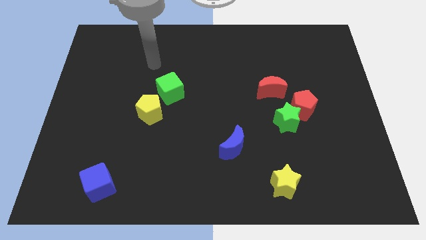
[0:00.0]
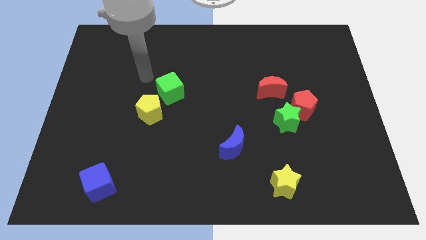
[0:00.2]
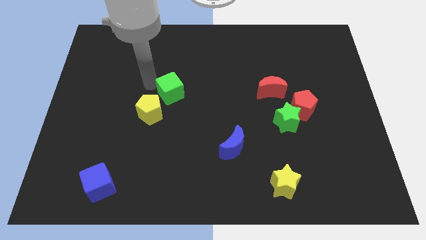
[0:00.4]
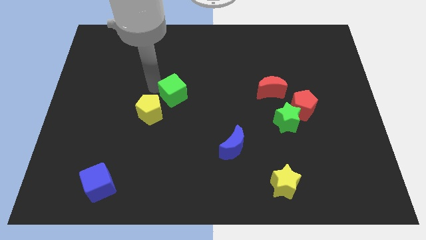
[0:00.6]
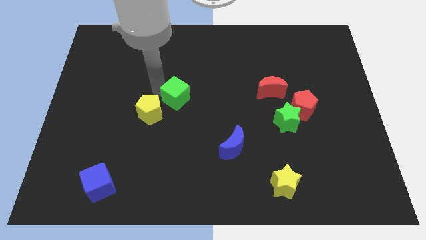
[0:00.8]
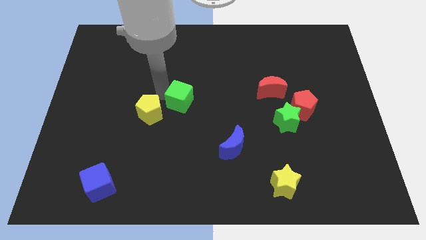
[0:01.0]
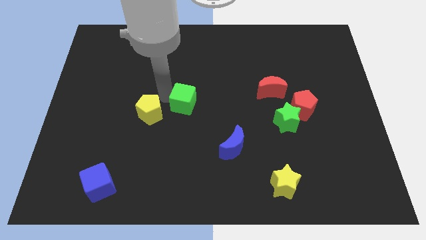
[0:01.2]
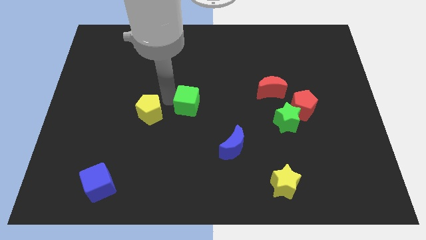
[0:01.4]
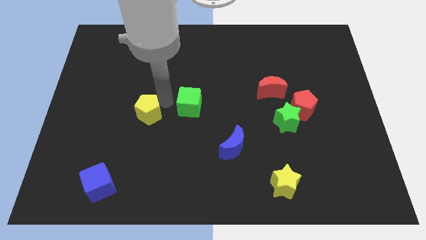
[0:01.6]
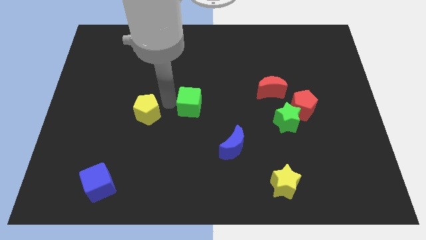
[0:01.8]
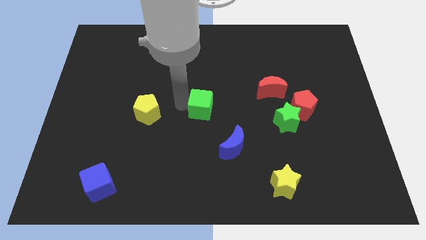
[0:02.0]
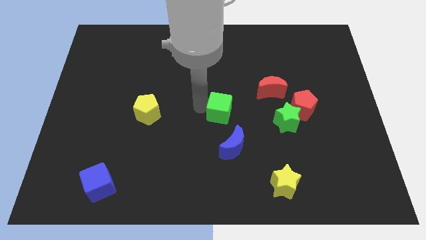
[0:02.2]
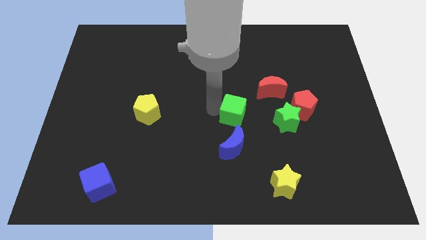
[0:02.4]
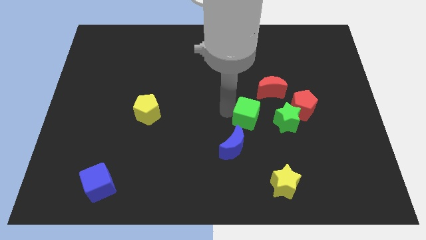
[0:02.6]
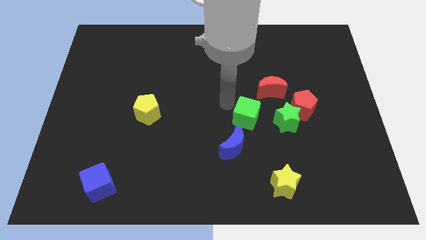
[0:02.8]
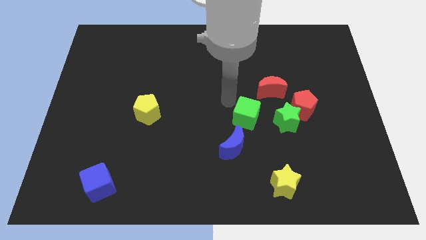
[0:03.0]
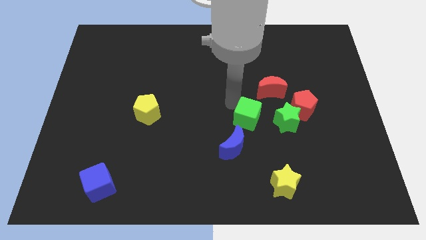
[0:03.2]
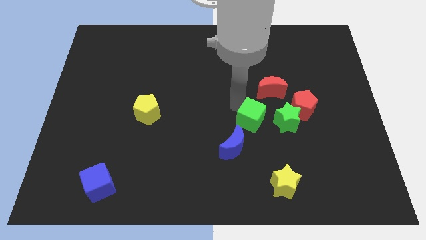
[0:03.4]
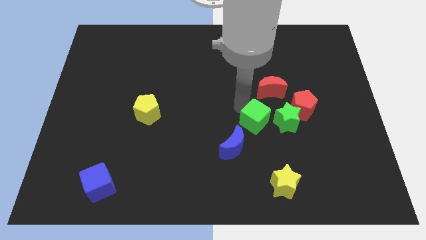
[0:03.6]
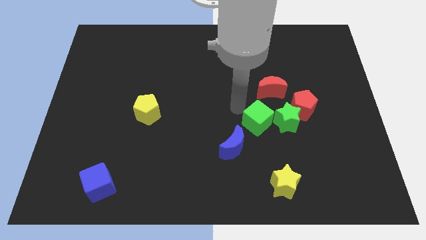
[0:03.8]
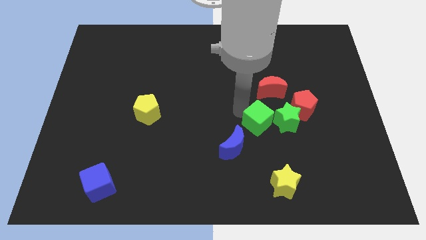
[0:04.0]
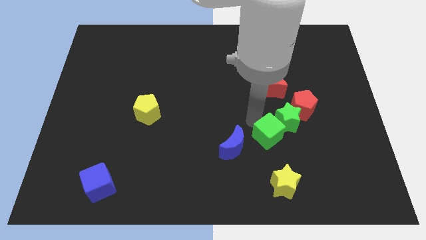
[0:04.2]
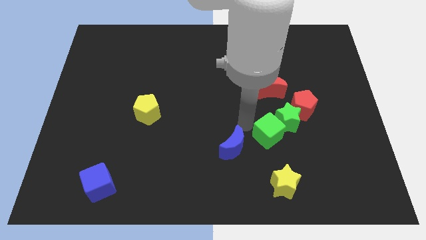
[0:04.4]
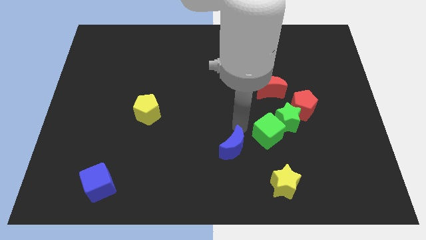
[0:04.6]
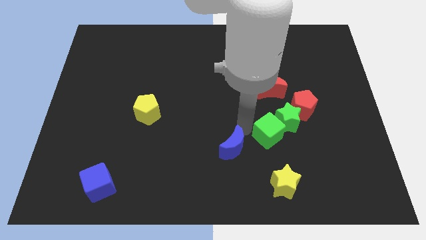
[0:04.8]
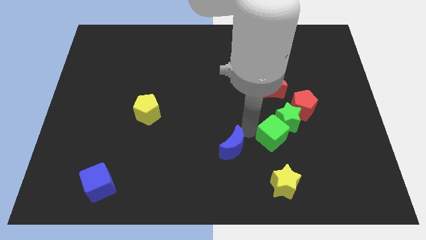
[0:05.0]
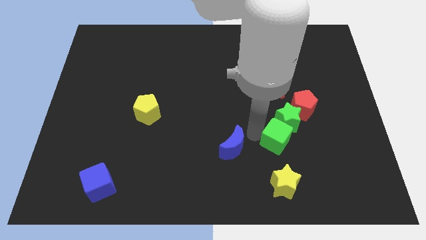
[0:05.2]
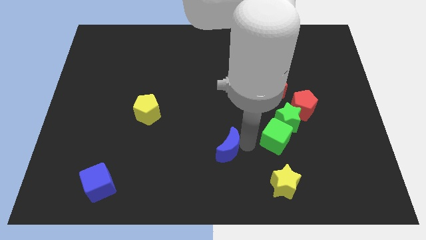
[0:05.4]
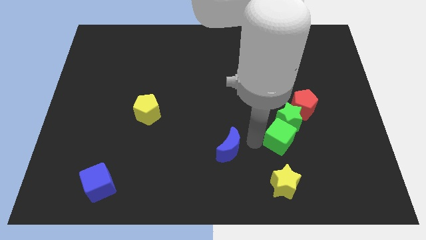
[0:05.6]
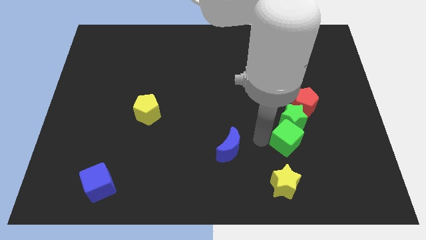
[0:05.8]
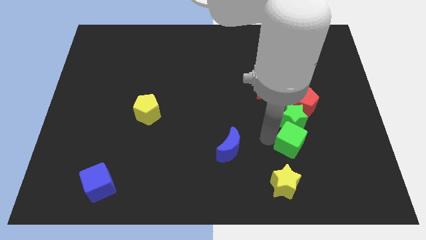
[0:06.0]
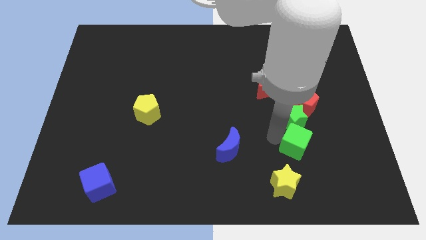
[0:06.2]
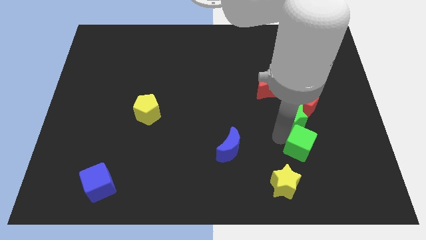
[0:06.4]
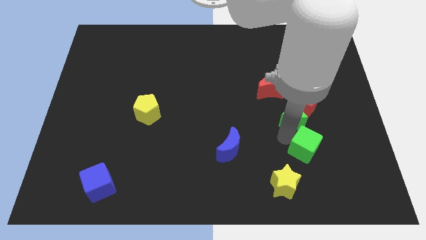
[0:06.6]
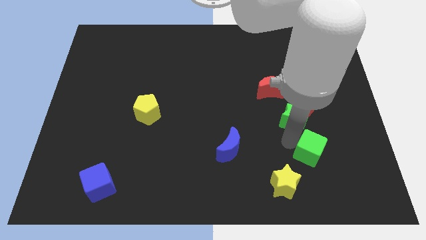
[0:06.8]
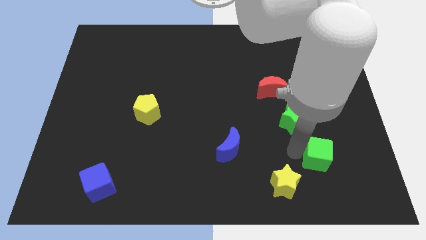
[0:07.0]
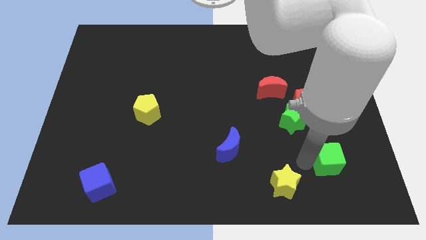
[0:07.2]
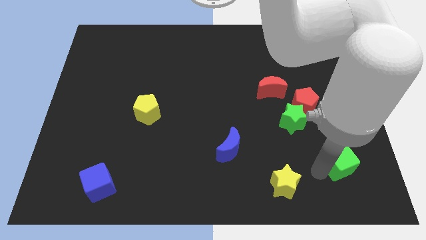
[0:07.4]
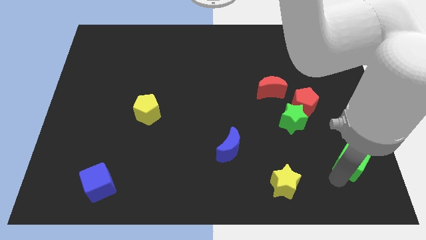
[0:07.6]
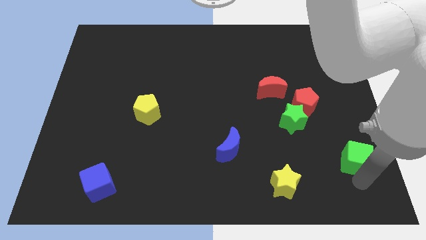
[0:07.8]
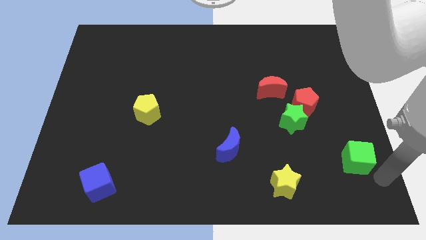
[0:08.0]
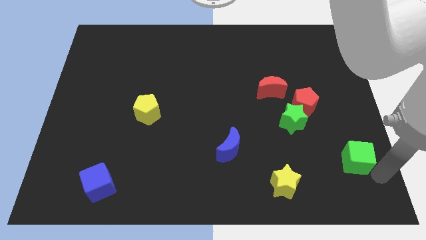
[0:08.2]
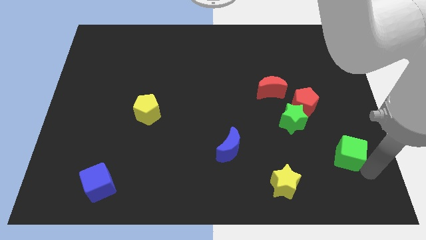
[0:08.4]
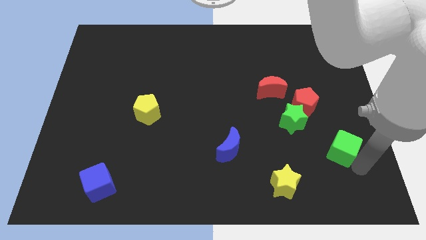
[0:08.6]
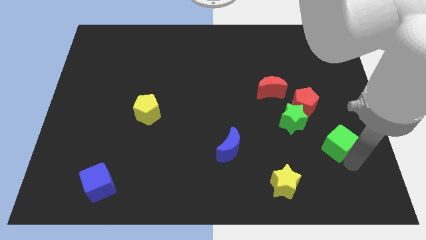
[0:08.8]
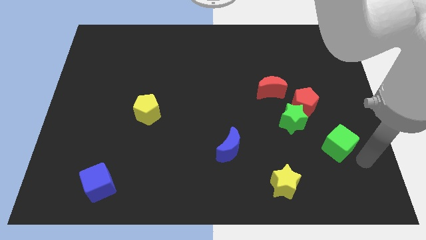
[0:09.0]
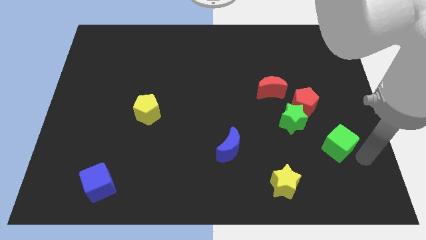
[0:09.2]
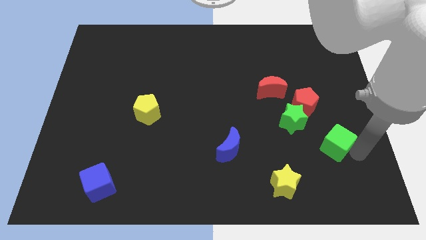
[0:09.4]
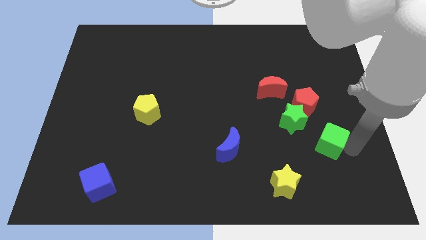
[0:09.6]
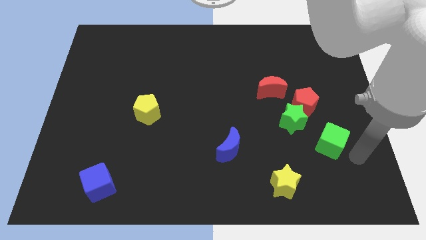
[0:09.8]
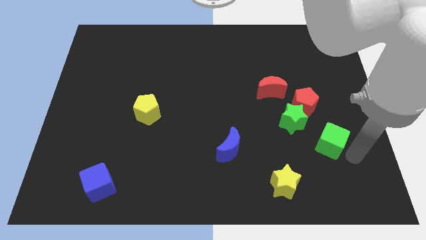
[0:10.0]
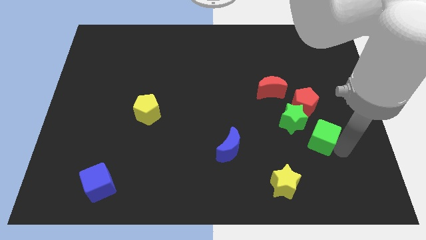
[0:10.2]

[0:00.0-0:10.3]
push the green cube to the right of the green star

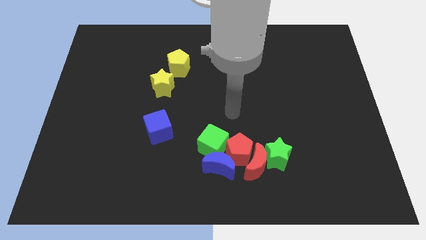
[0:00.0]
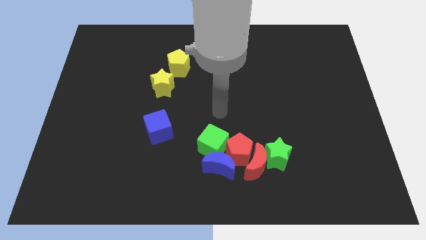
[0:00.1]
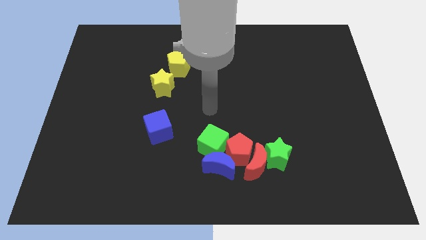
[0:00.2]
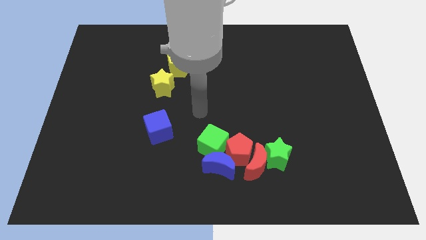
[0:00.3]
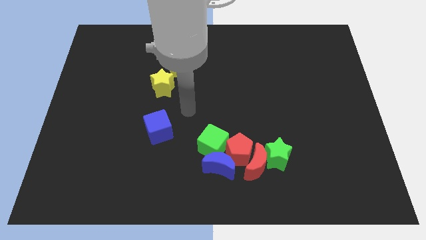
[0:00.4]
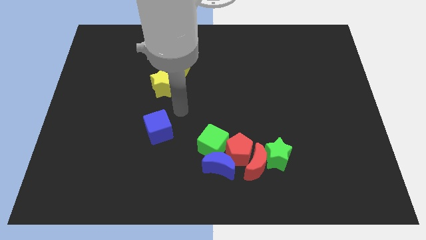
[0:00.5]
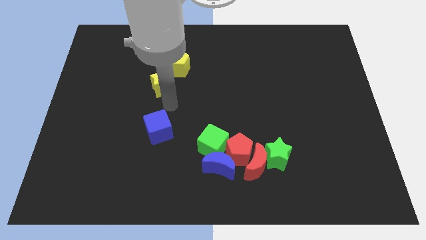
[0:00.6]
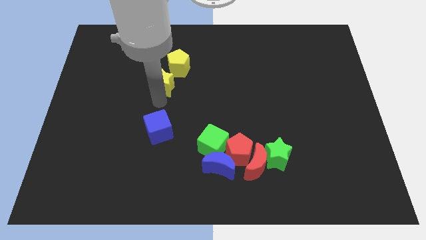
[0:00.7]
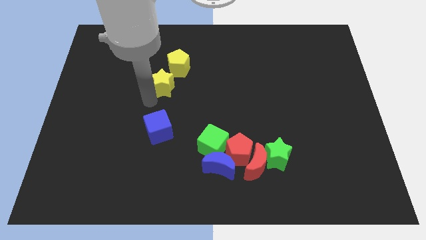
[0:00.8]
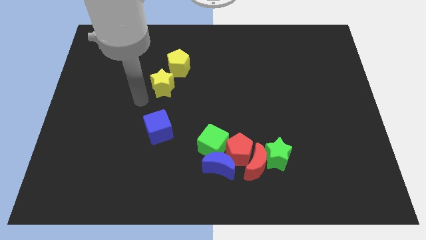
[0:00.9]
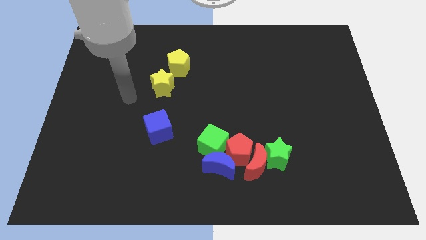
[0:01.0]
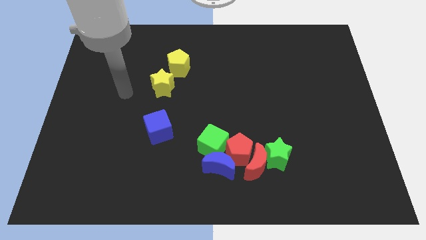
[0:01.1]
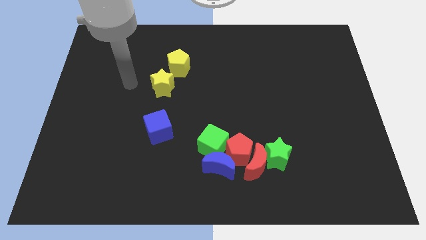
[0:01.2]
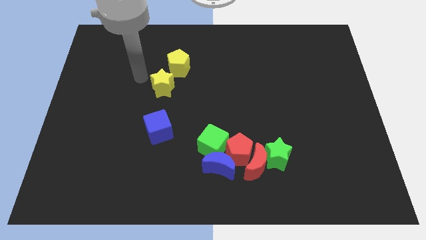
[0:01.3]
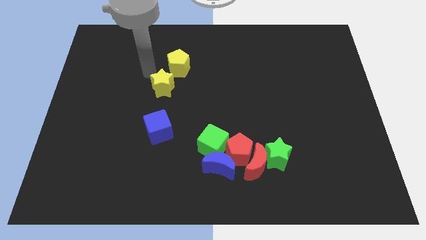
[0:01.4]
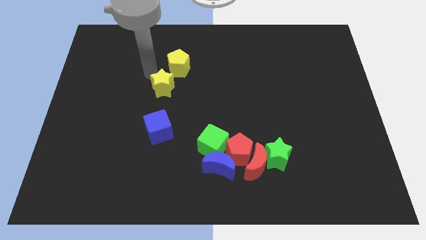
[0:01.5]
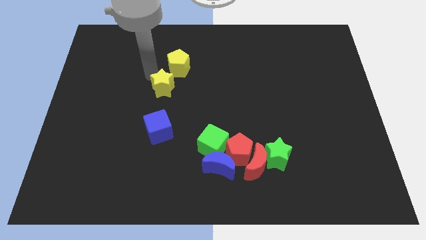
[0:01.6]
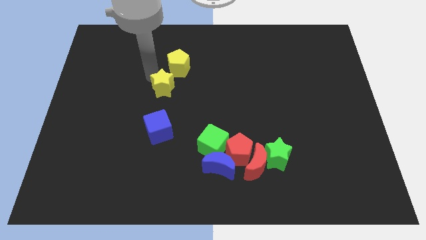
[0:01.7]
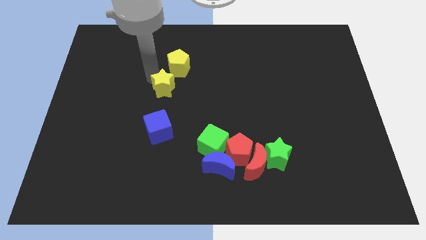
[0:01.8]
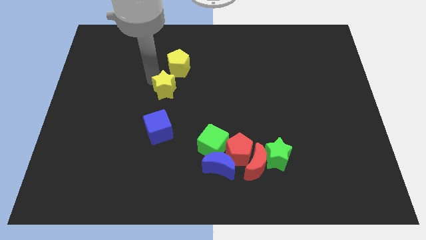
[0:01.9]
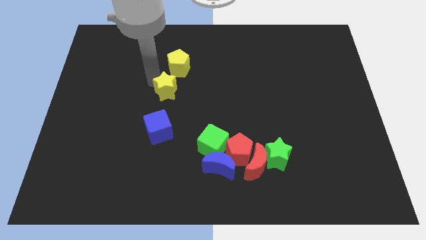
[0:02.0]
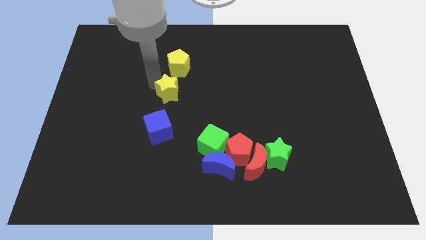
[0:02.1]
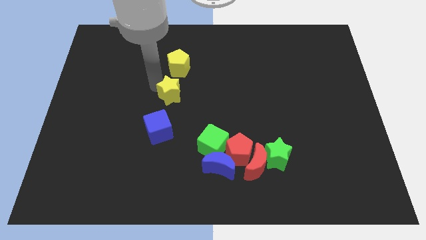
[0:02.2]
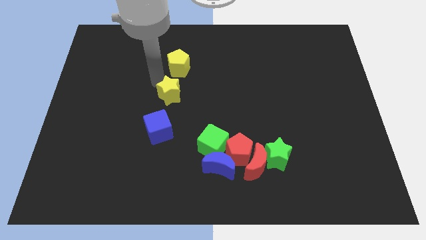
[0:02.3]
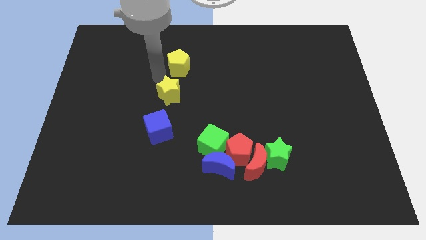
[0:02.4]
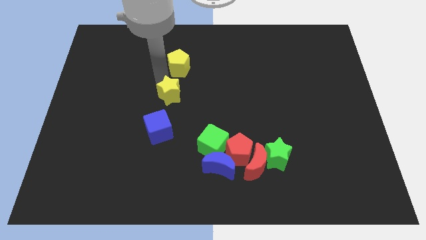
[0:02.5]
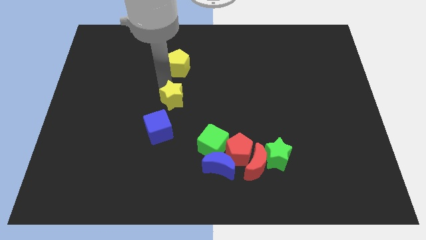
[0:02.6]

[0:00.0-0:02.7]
move the yellow star to the top right side of the blue cube
